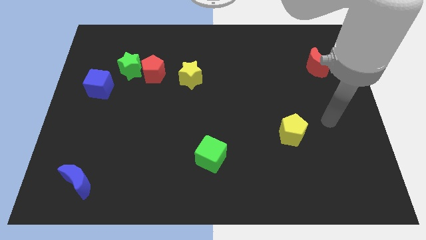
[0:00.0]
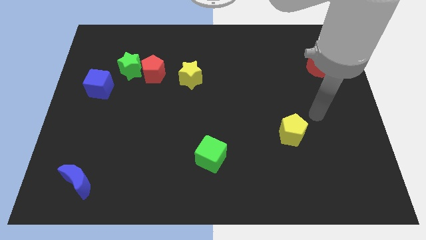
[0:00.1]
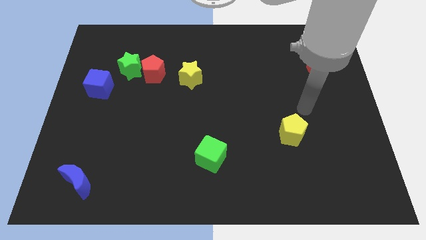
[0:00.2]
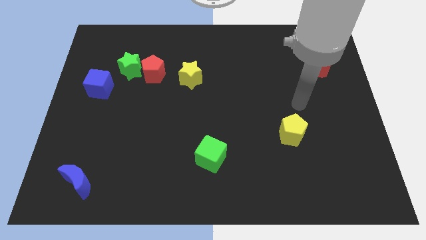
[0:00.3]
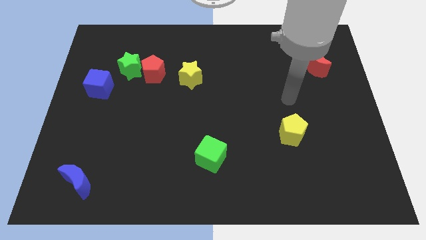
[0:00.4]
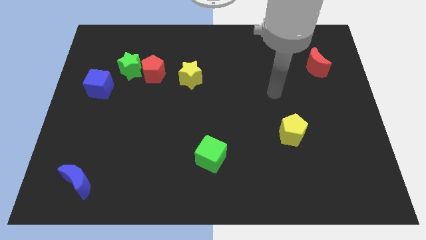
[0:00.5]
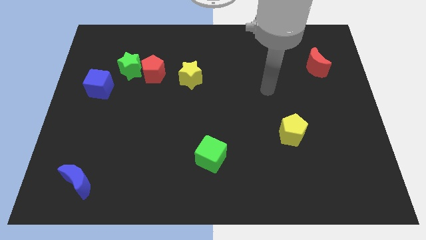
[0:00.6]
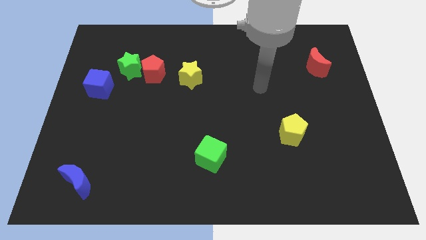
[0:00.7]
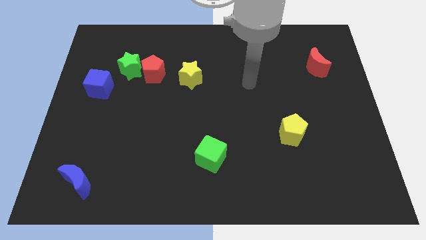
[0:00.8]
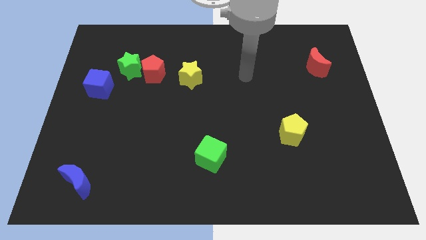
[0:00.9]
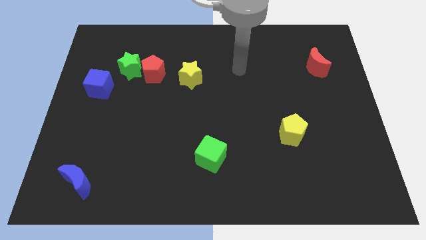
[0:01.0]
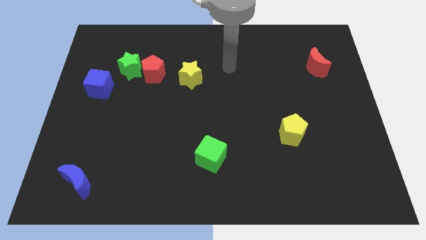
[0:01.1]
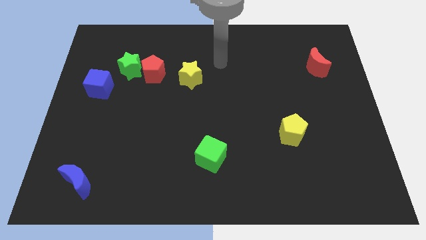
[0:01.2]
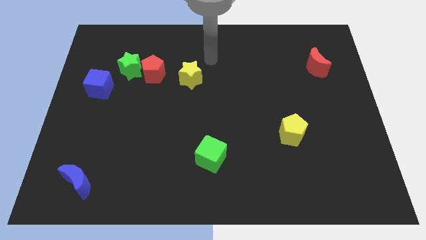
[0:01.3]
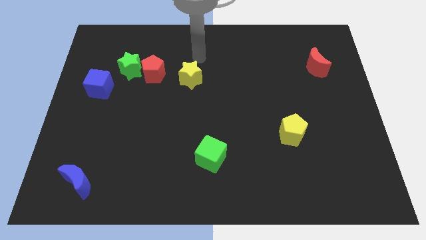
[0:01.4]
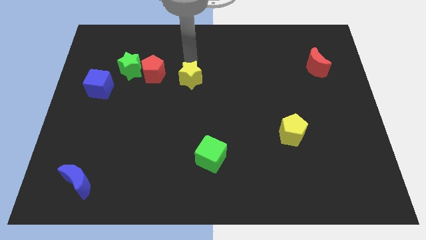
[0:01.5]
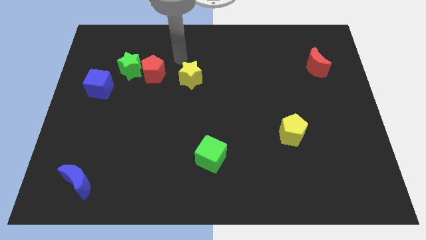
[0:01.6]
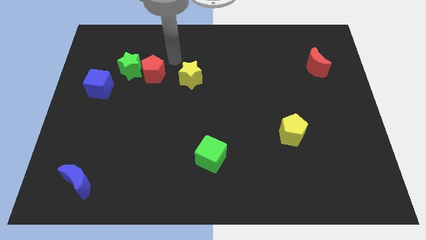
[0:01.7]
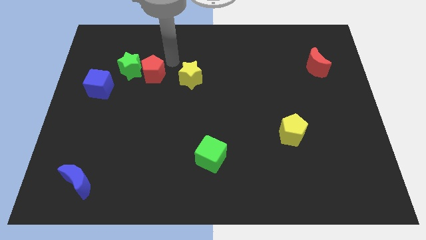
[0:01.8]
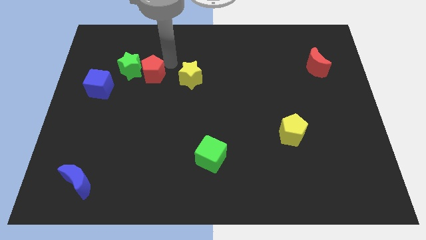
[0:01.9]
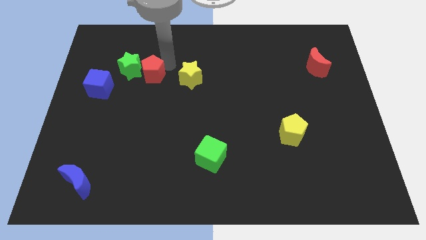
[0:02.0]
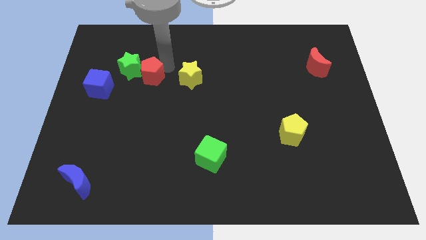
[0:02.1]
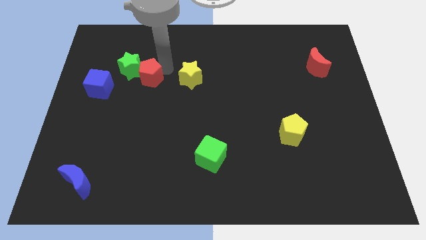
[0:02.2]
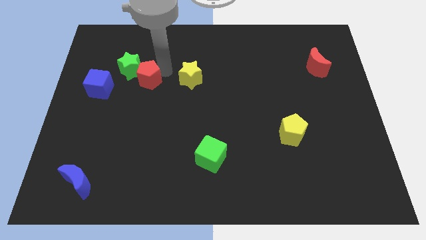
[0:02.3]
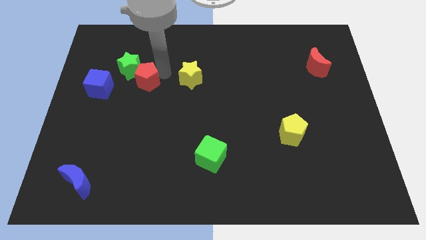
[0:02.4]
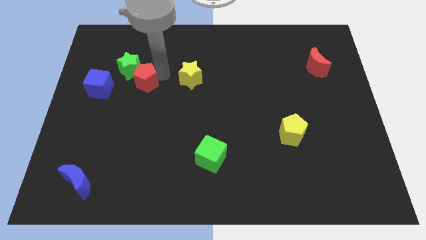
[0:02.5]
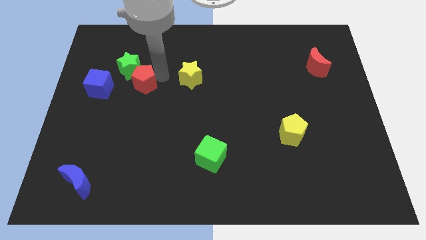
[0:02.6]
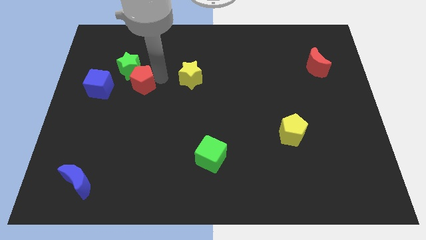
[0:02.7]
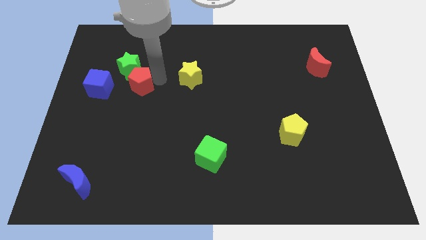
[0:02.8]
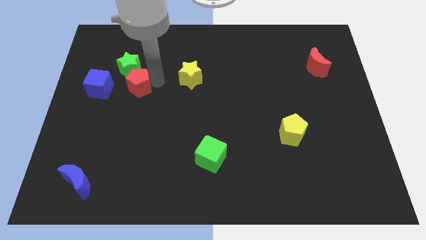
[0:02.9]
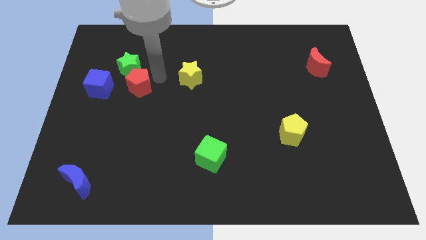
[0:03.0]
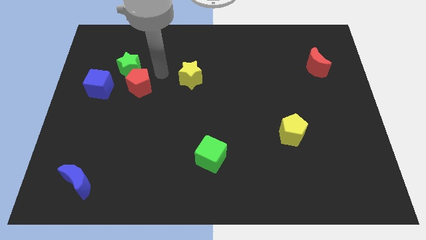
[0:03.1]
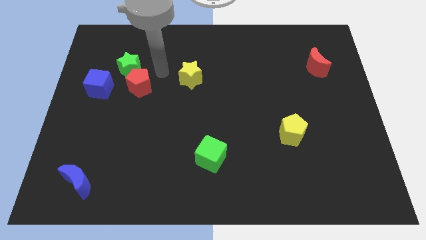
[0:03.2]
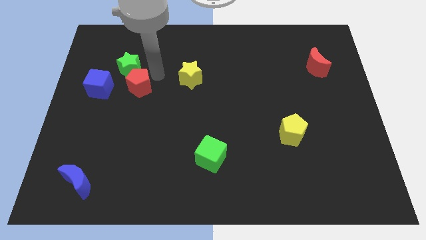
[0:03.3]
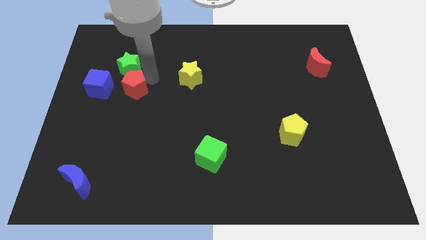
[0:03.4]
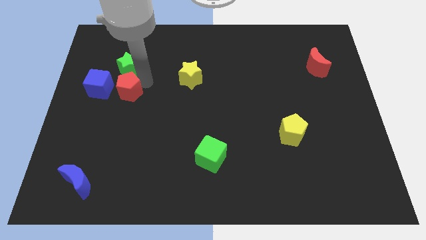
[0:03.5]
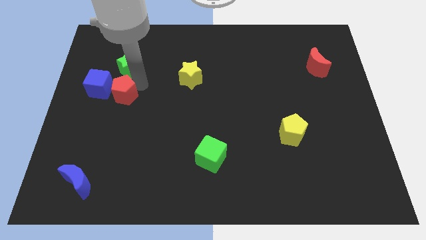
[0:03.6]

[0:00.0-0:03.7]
move the red pentagon away from the green star and yellow star

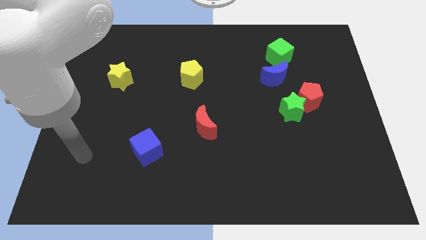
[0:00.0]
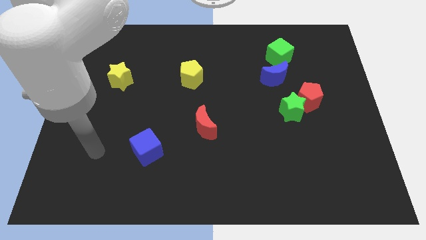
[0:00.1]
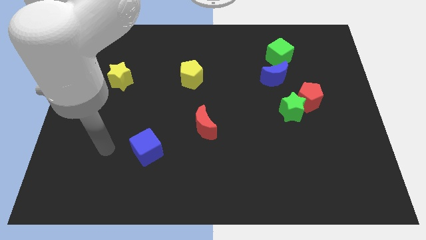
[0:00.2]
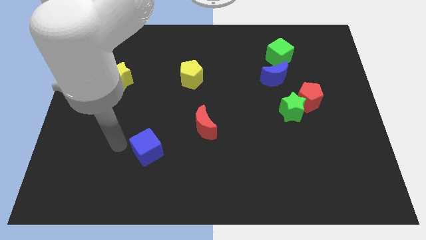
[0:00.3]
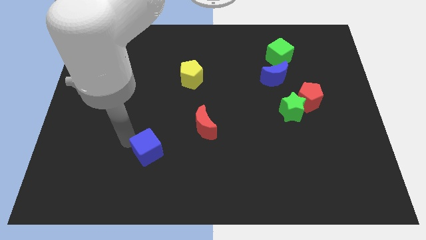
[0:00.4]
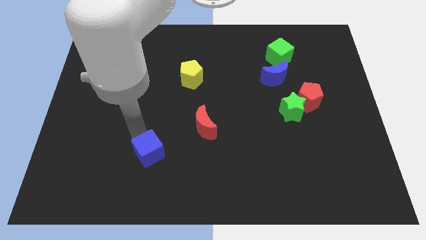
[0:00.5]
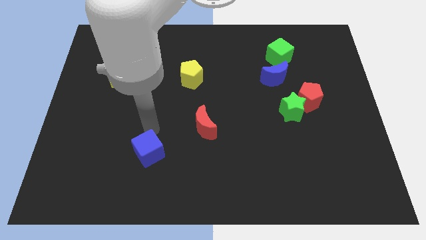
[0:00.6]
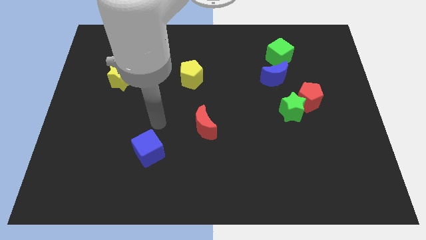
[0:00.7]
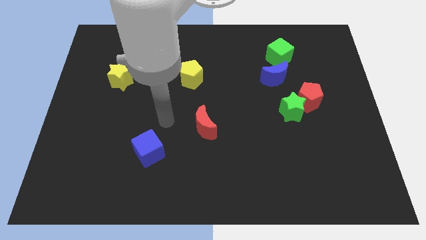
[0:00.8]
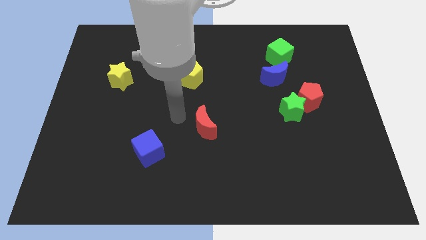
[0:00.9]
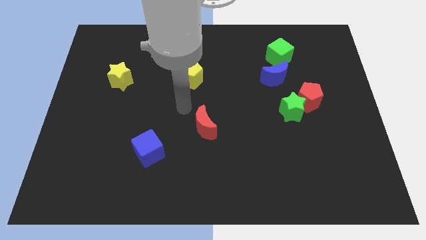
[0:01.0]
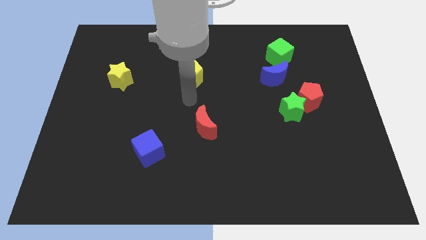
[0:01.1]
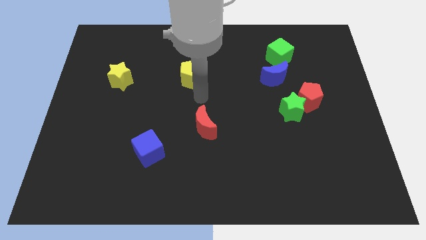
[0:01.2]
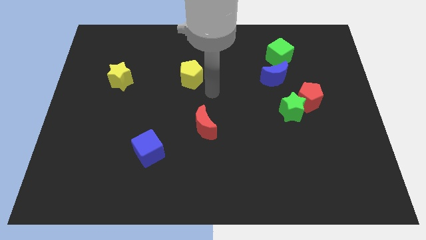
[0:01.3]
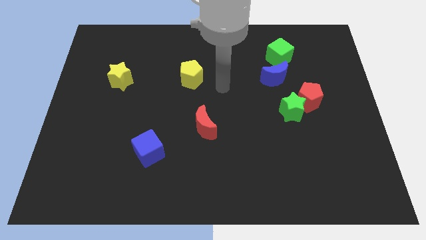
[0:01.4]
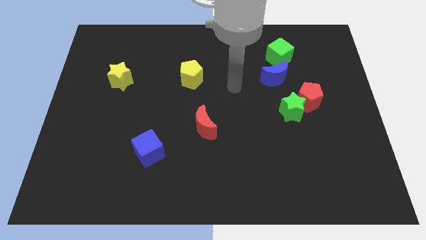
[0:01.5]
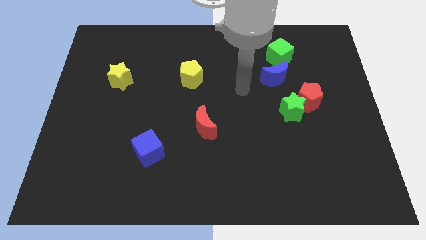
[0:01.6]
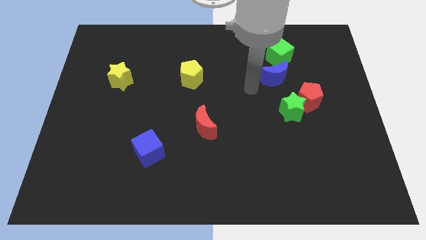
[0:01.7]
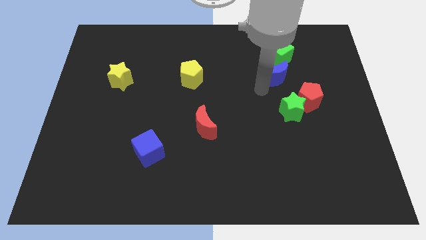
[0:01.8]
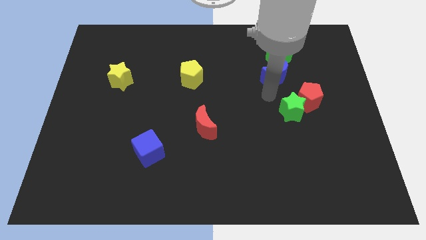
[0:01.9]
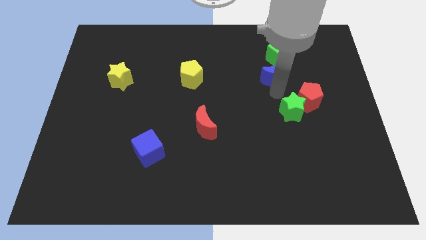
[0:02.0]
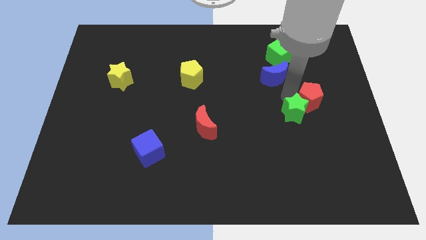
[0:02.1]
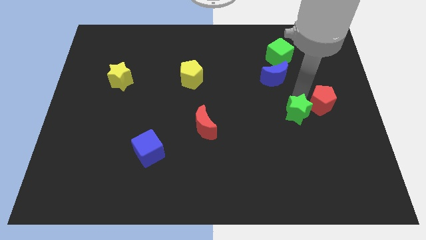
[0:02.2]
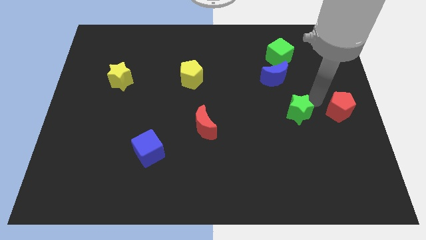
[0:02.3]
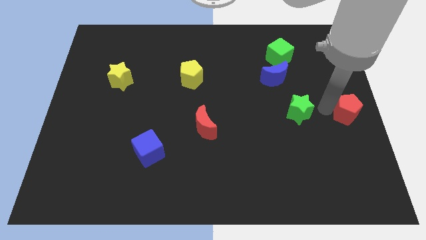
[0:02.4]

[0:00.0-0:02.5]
separate the green star from the red pentagon

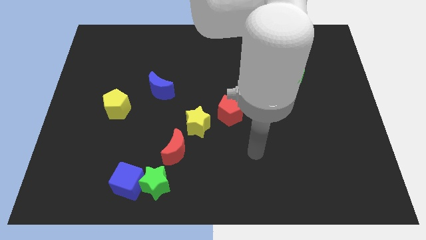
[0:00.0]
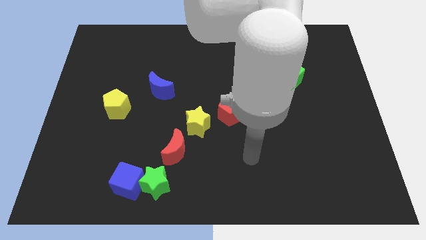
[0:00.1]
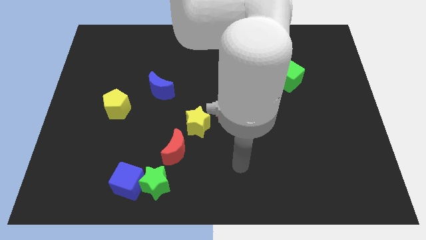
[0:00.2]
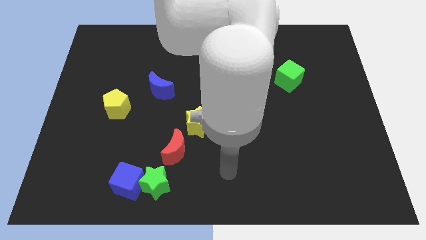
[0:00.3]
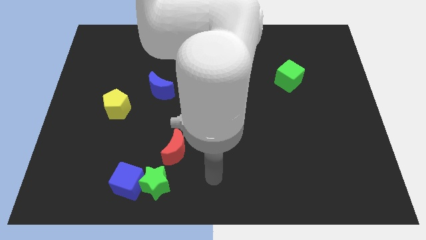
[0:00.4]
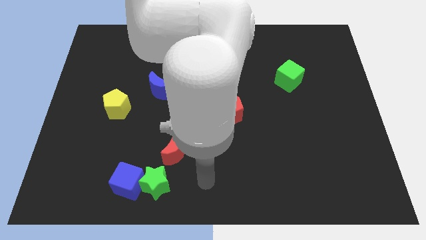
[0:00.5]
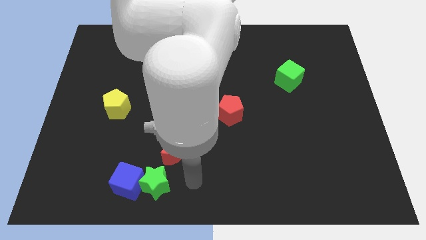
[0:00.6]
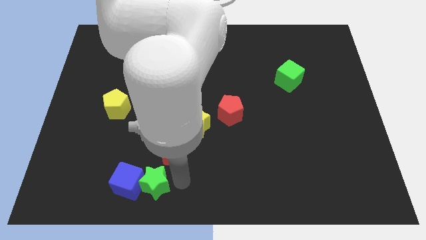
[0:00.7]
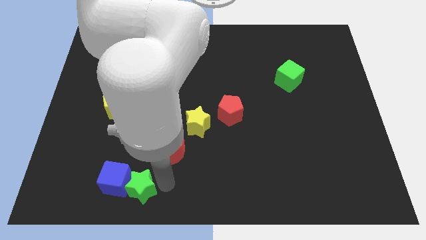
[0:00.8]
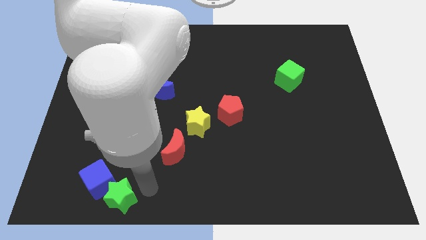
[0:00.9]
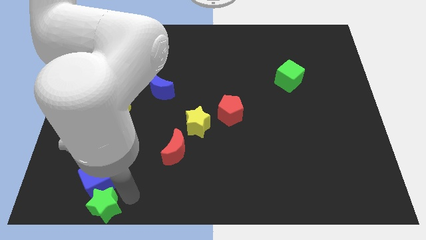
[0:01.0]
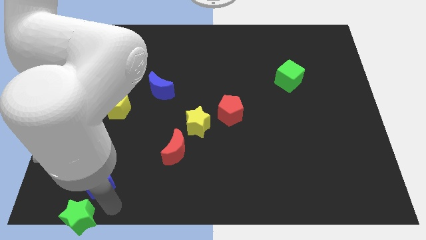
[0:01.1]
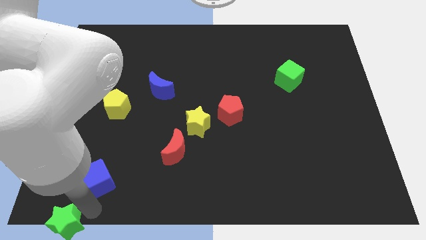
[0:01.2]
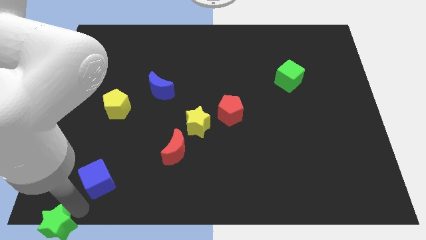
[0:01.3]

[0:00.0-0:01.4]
move the blue cube away from the green star

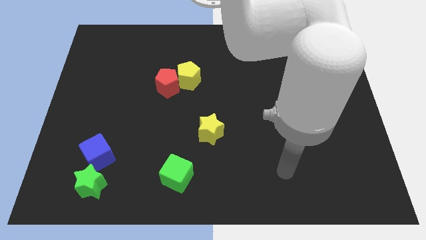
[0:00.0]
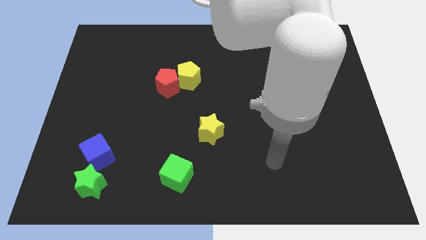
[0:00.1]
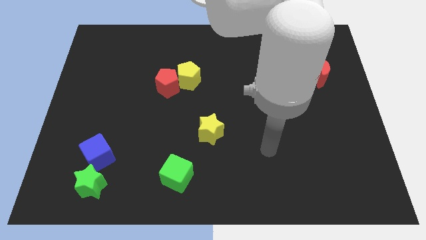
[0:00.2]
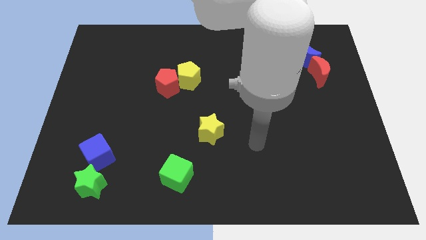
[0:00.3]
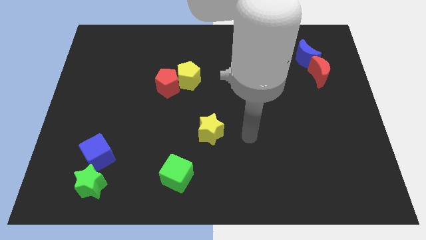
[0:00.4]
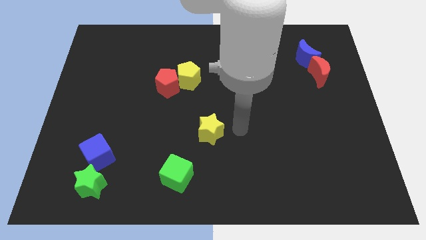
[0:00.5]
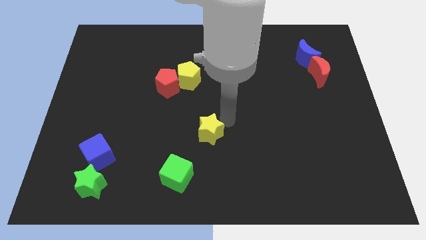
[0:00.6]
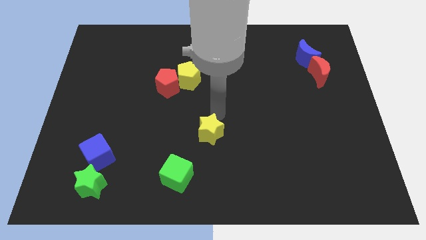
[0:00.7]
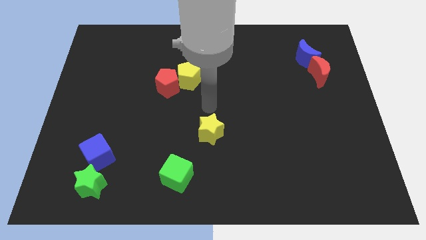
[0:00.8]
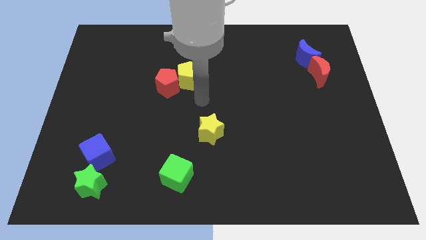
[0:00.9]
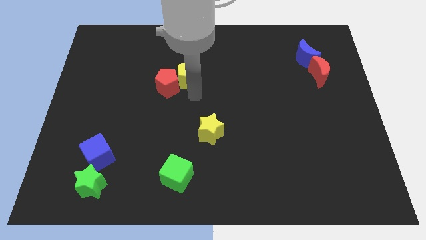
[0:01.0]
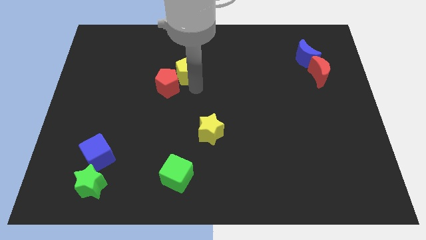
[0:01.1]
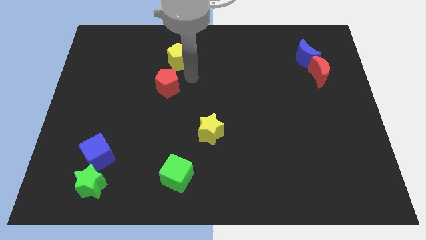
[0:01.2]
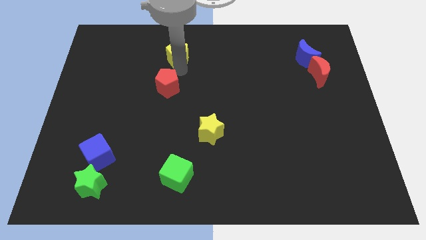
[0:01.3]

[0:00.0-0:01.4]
move the red pentagon away from the yellow pentagon

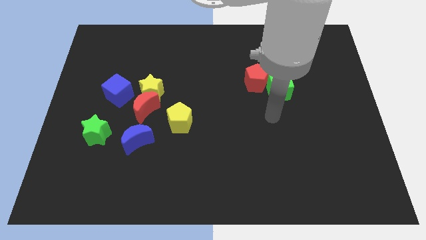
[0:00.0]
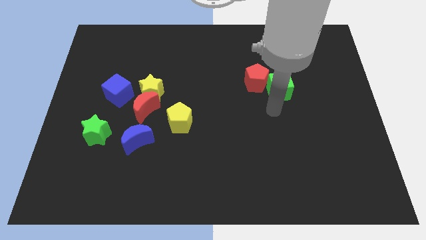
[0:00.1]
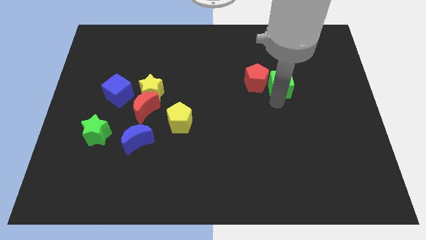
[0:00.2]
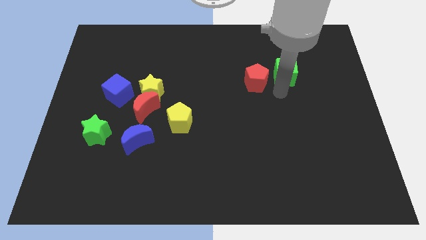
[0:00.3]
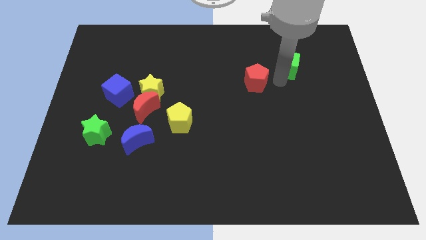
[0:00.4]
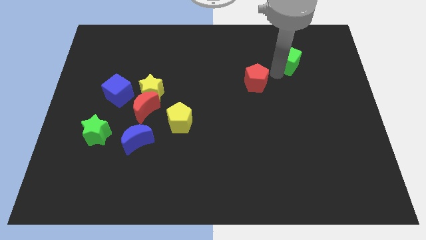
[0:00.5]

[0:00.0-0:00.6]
separate the red pentagon from the green cube
